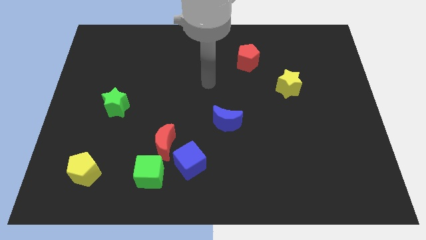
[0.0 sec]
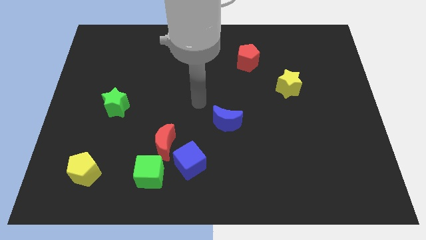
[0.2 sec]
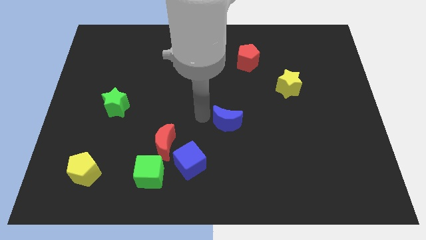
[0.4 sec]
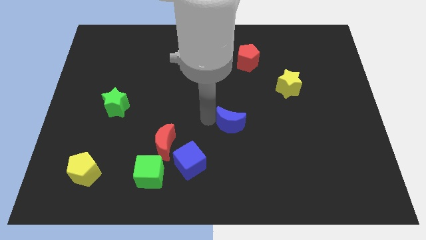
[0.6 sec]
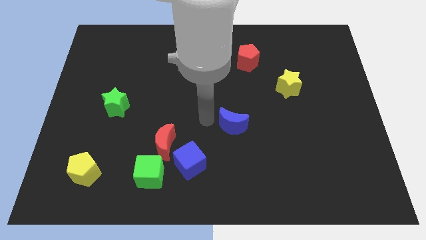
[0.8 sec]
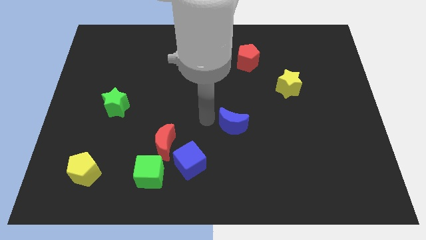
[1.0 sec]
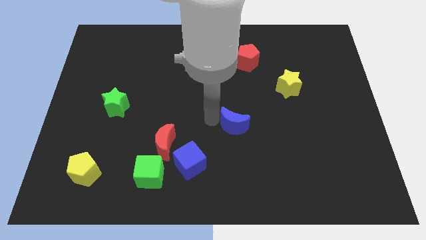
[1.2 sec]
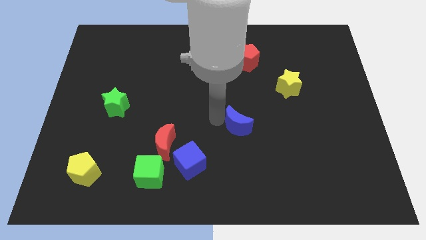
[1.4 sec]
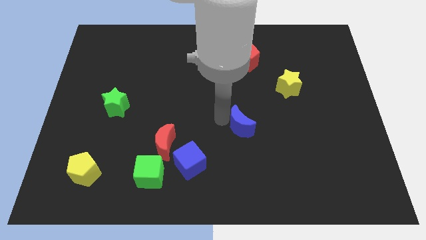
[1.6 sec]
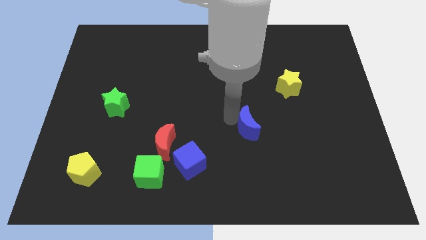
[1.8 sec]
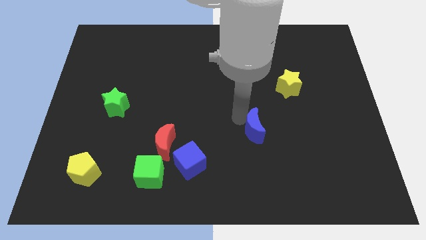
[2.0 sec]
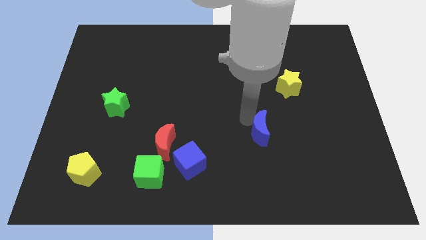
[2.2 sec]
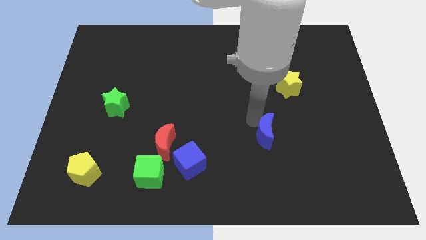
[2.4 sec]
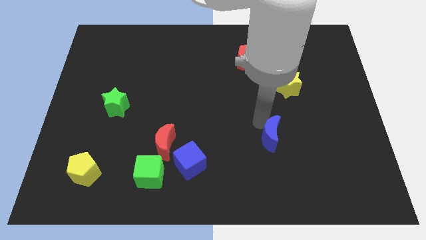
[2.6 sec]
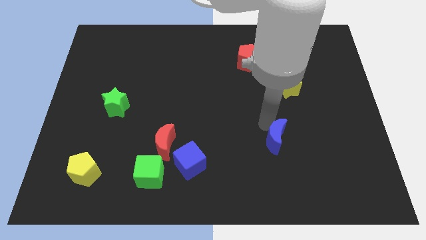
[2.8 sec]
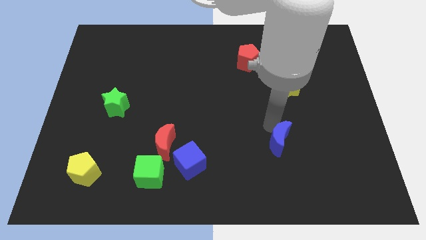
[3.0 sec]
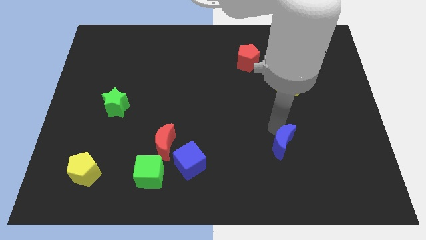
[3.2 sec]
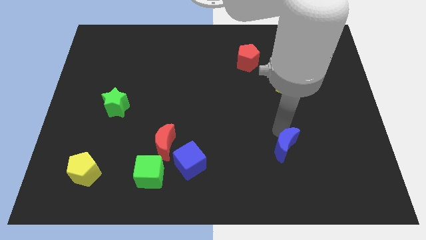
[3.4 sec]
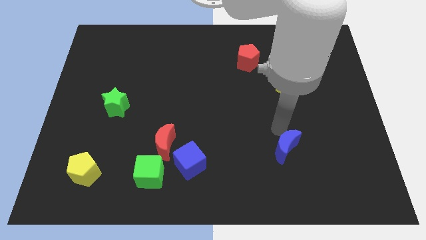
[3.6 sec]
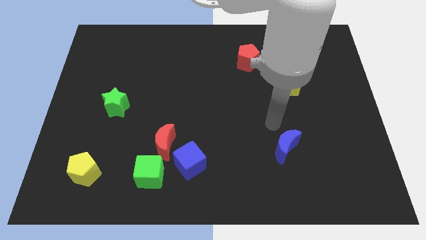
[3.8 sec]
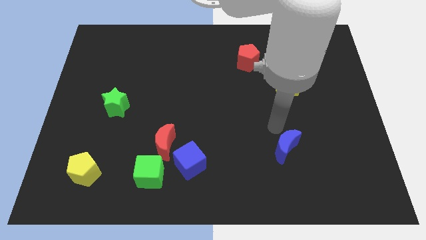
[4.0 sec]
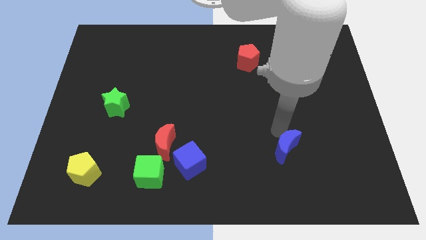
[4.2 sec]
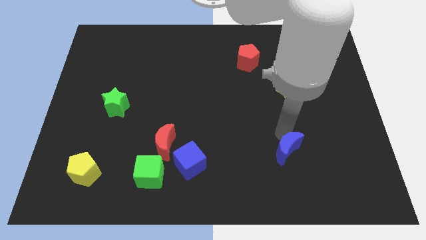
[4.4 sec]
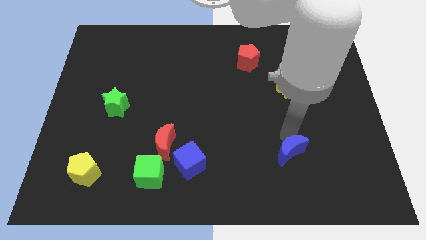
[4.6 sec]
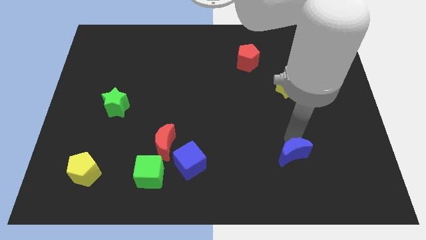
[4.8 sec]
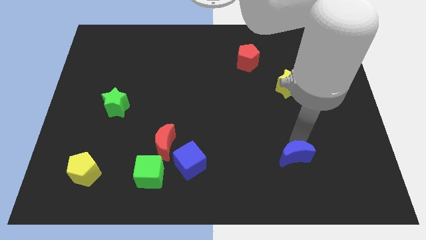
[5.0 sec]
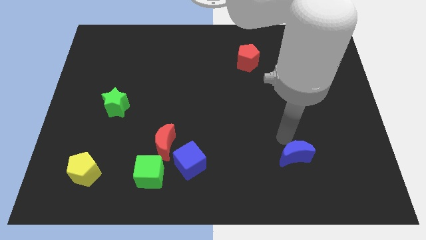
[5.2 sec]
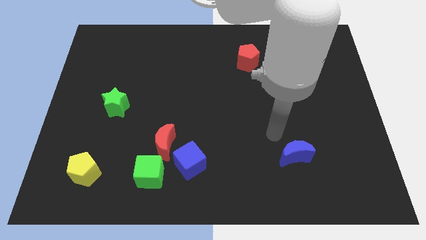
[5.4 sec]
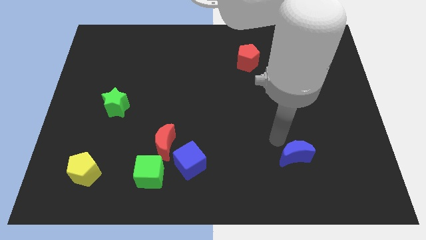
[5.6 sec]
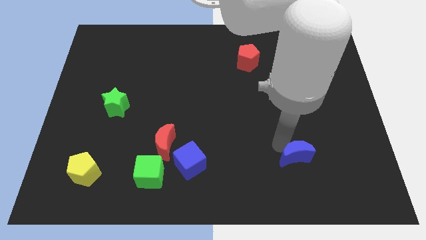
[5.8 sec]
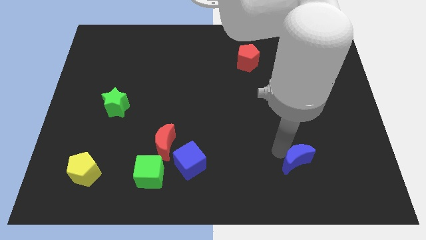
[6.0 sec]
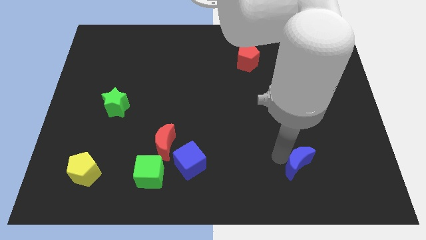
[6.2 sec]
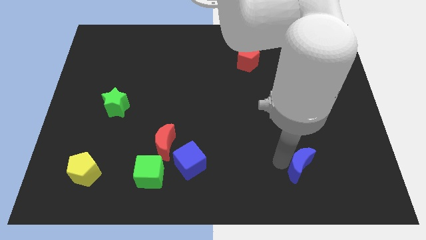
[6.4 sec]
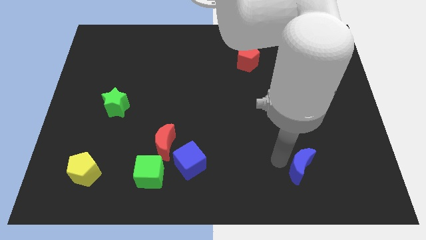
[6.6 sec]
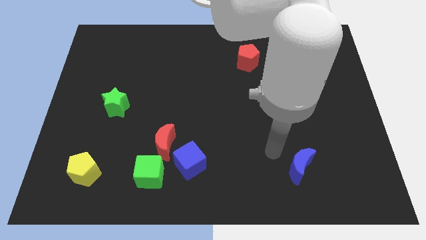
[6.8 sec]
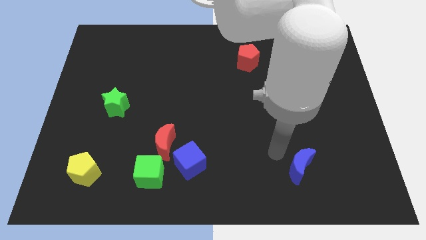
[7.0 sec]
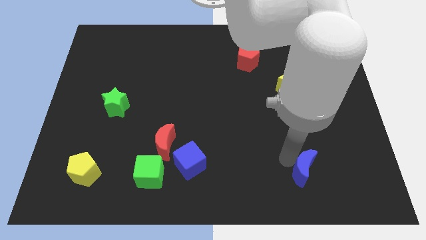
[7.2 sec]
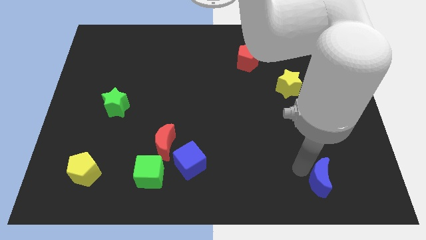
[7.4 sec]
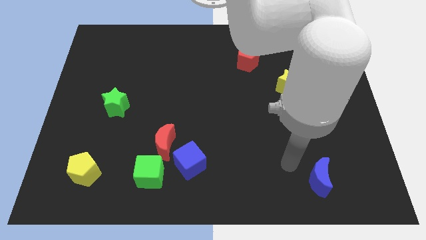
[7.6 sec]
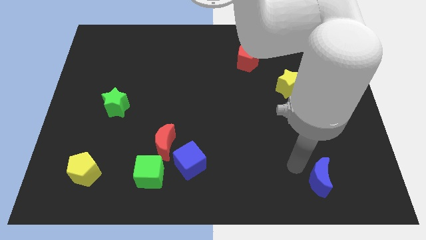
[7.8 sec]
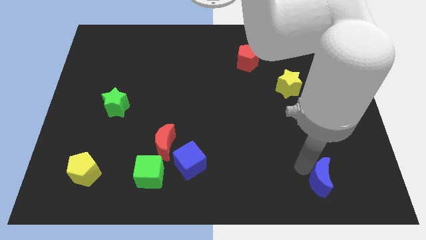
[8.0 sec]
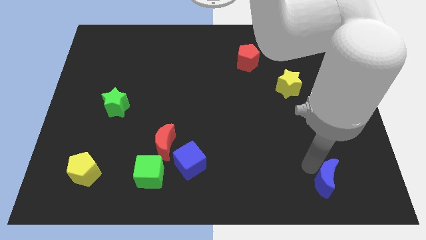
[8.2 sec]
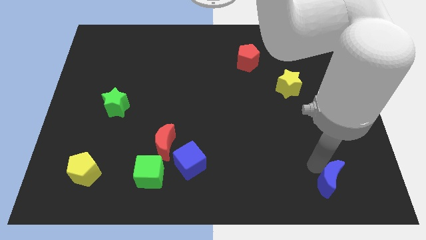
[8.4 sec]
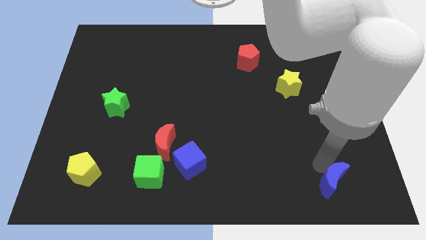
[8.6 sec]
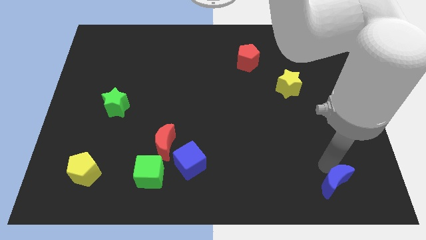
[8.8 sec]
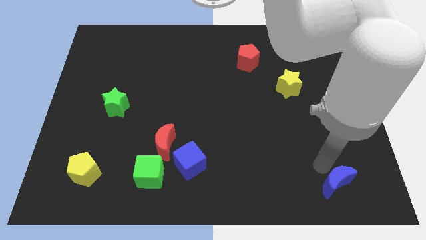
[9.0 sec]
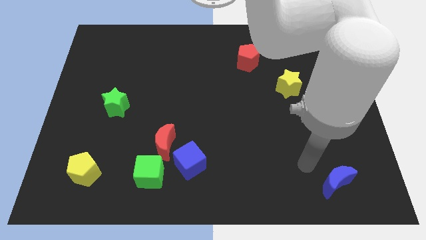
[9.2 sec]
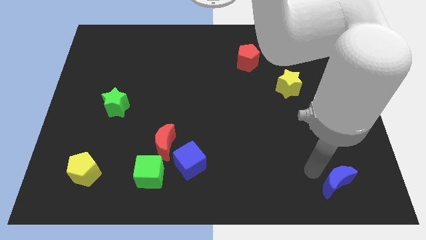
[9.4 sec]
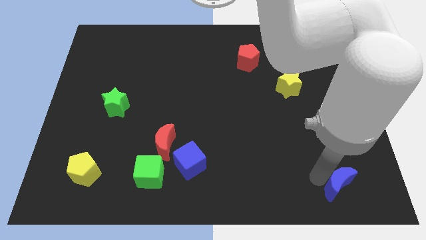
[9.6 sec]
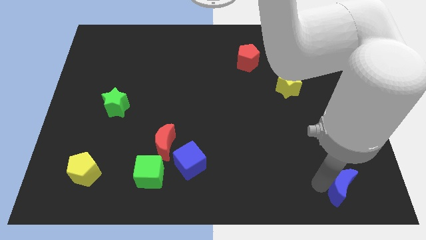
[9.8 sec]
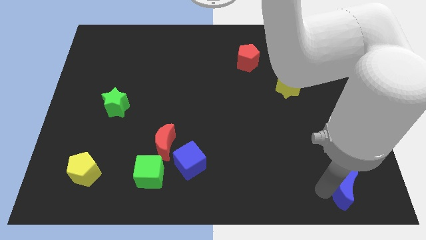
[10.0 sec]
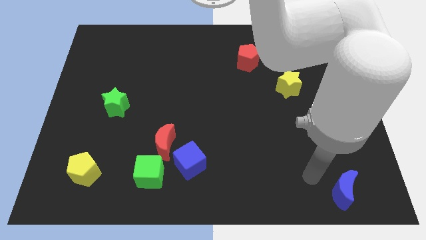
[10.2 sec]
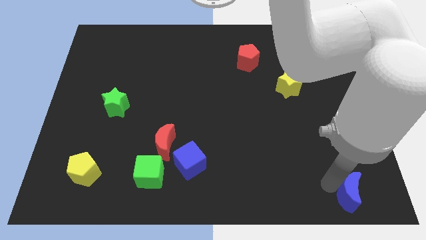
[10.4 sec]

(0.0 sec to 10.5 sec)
push the blue moon to the bottom right

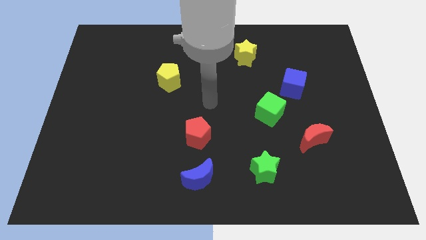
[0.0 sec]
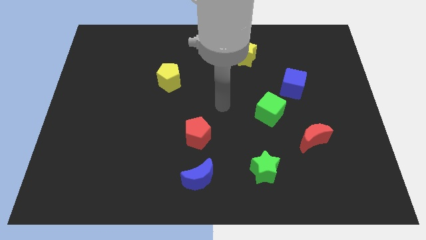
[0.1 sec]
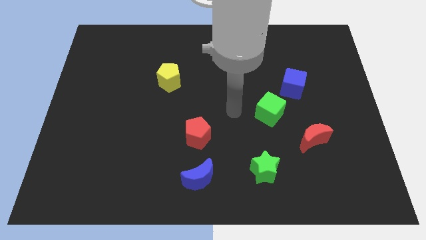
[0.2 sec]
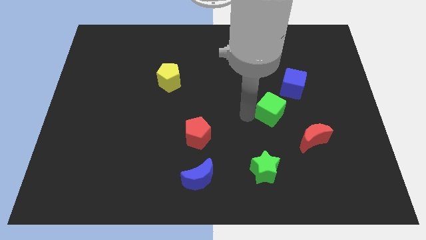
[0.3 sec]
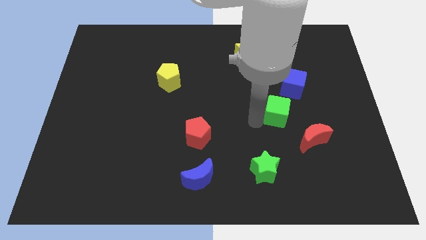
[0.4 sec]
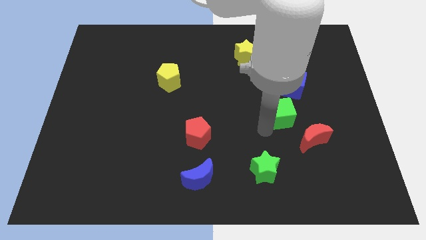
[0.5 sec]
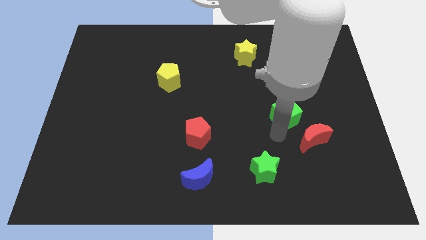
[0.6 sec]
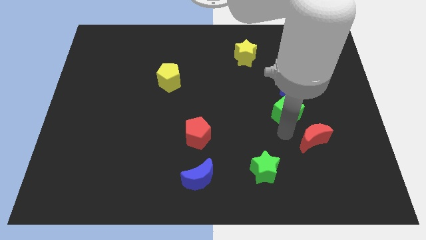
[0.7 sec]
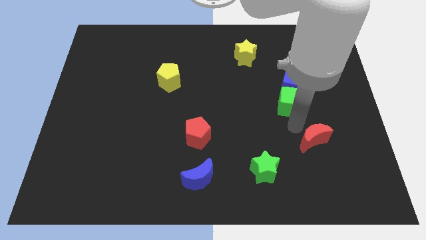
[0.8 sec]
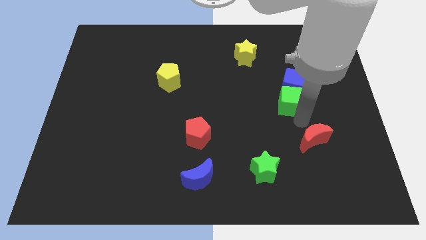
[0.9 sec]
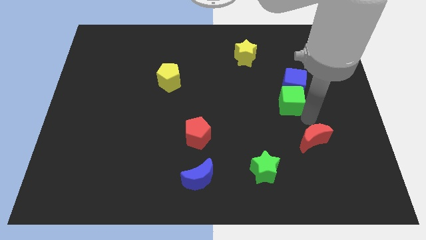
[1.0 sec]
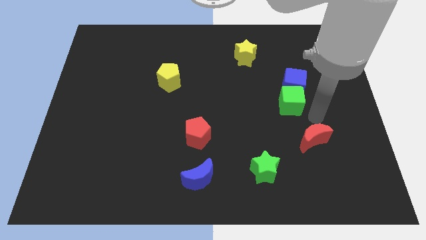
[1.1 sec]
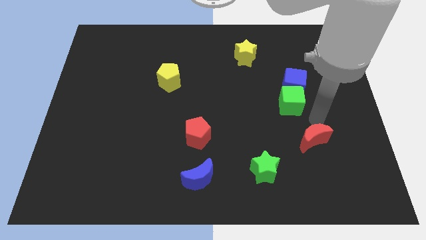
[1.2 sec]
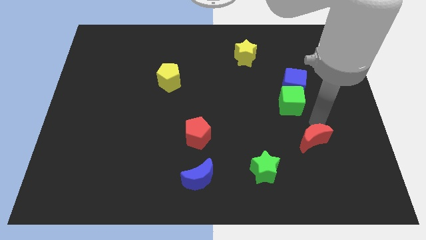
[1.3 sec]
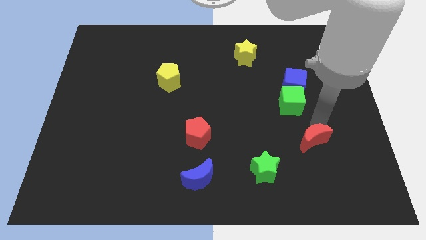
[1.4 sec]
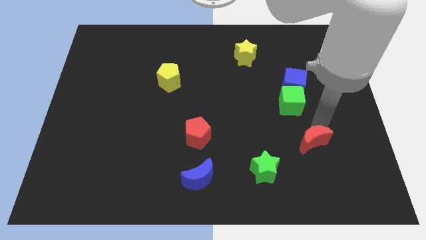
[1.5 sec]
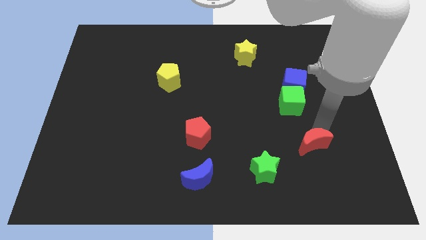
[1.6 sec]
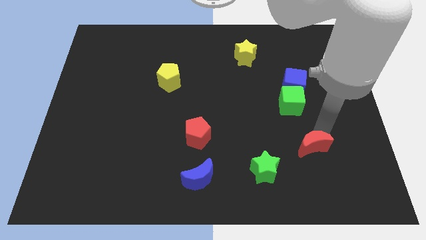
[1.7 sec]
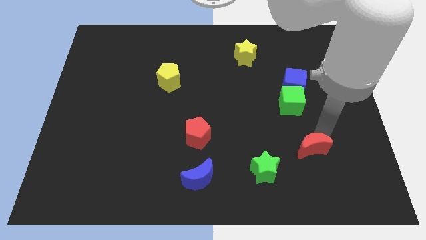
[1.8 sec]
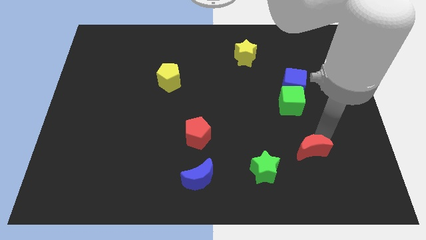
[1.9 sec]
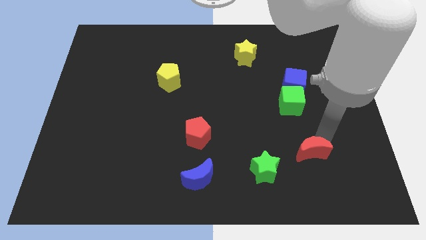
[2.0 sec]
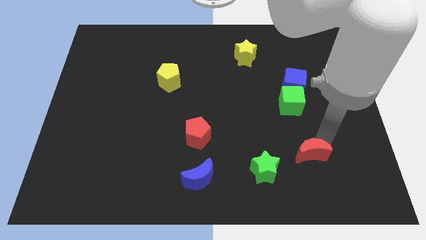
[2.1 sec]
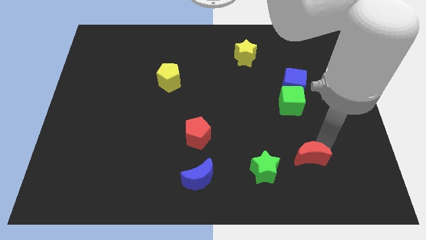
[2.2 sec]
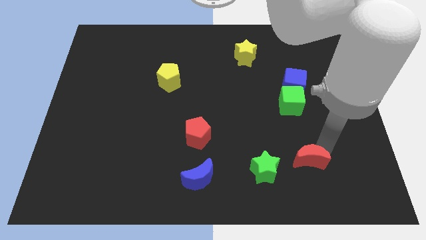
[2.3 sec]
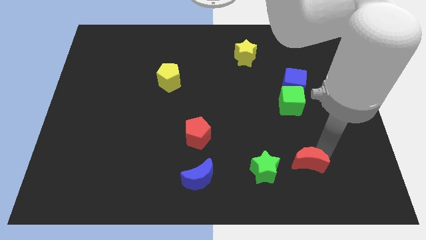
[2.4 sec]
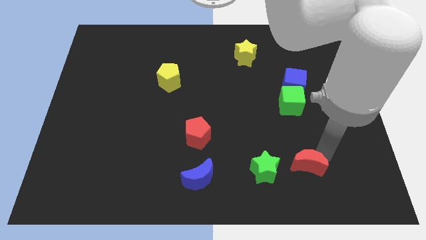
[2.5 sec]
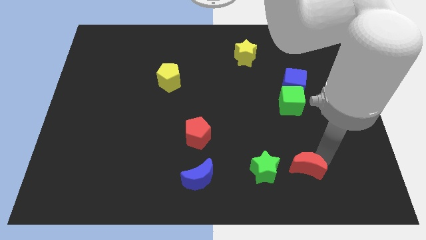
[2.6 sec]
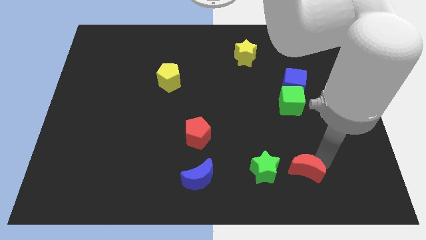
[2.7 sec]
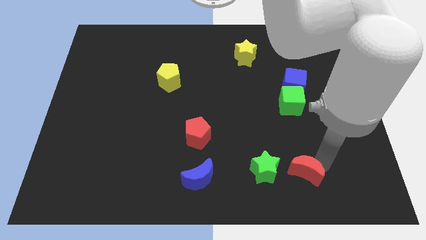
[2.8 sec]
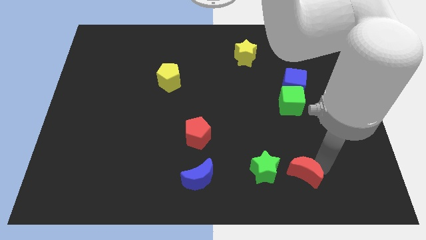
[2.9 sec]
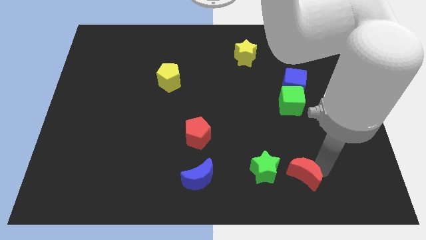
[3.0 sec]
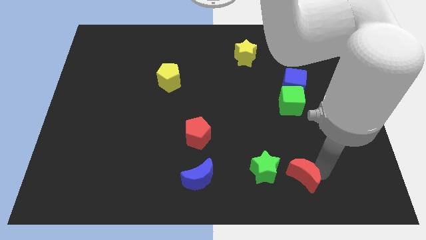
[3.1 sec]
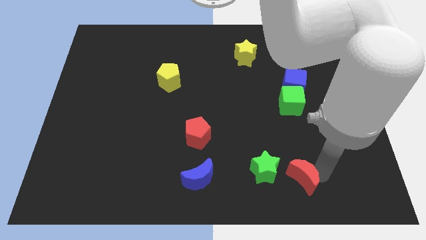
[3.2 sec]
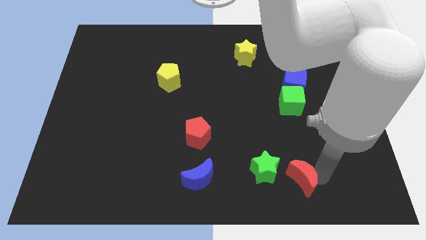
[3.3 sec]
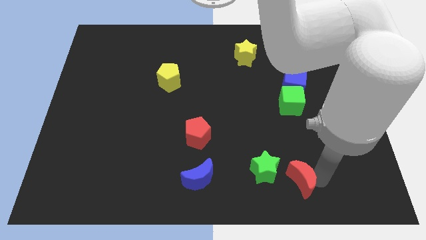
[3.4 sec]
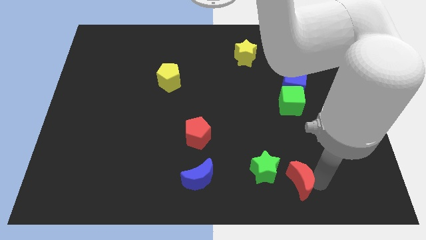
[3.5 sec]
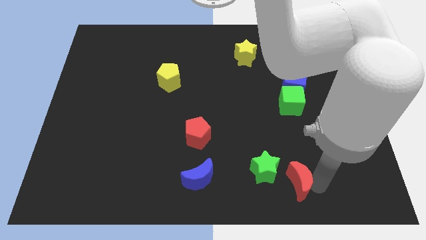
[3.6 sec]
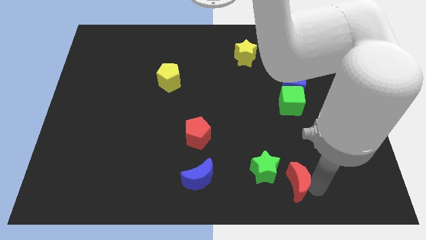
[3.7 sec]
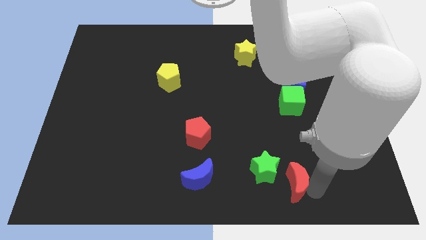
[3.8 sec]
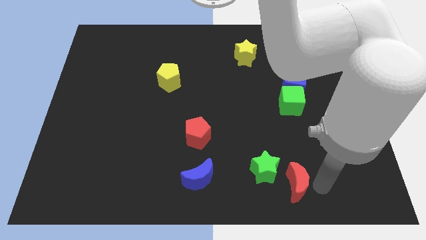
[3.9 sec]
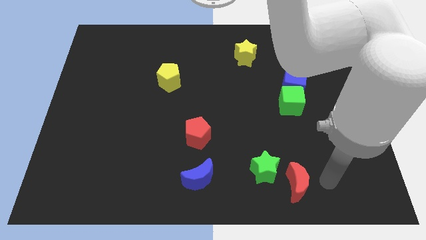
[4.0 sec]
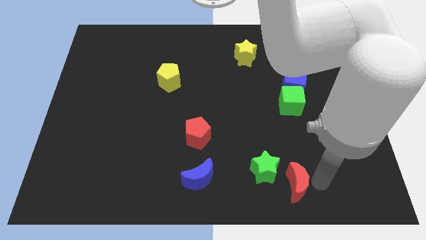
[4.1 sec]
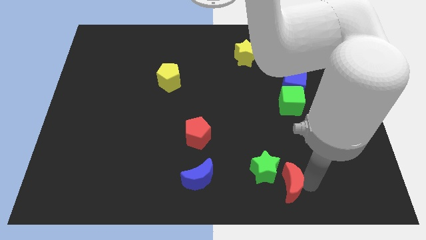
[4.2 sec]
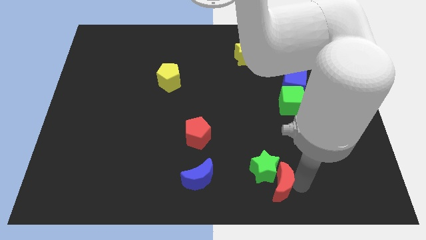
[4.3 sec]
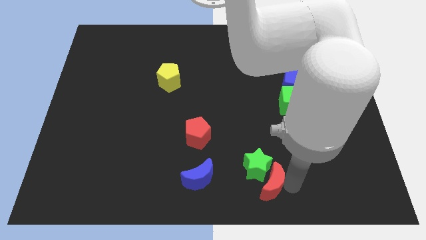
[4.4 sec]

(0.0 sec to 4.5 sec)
put the red moon to the bottom side
